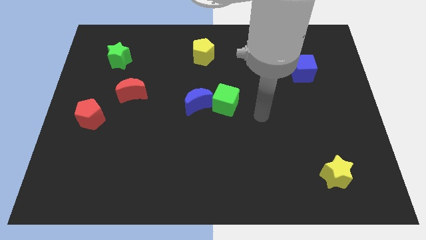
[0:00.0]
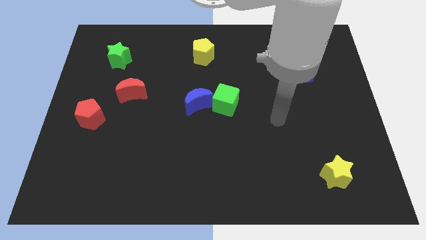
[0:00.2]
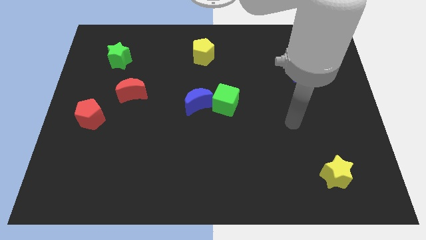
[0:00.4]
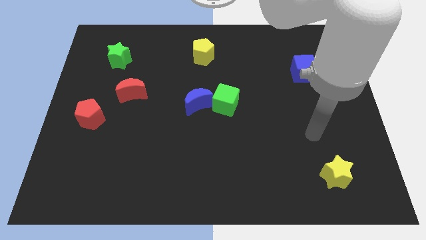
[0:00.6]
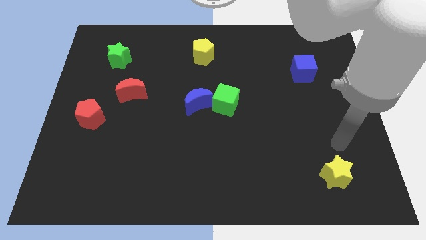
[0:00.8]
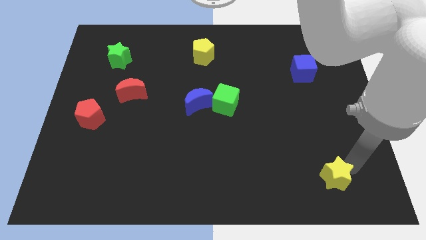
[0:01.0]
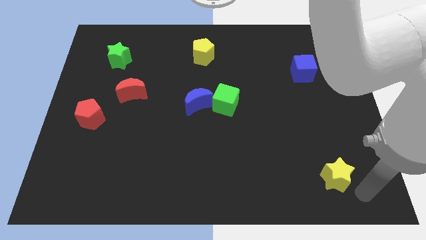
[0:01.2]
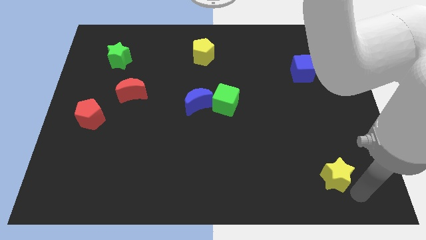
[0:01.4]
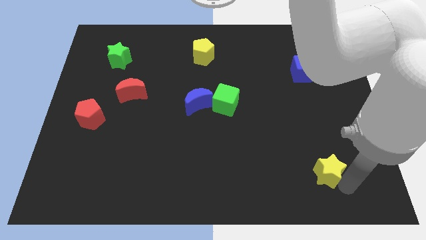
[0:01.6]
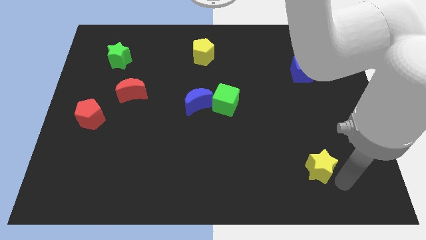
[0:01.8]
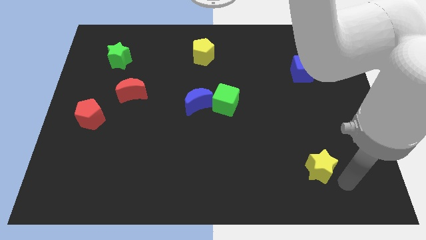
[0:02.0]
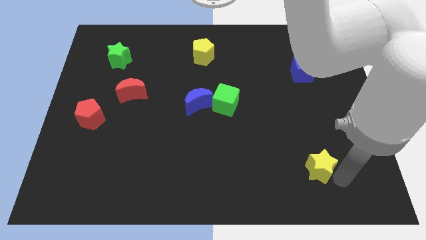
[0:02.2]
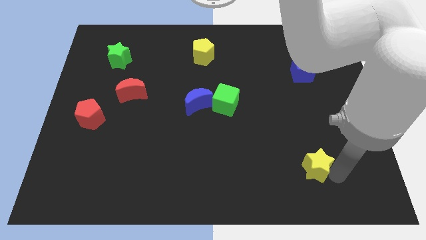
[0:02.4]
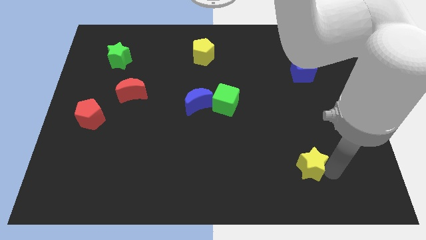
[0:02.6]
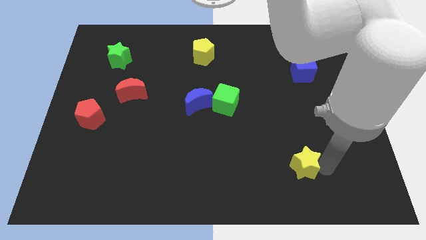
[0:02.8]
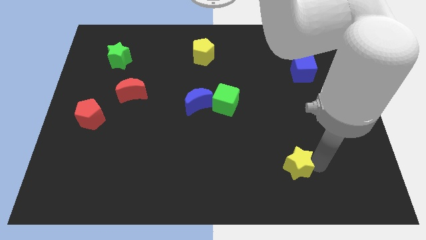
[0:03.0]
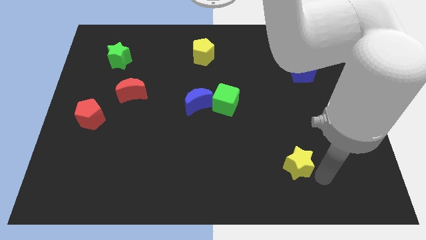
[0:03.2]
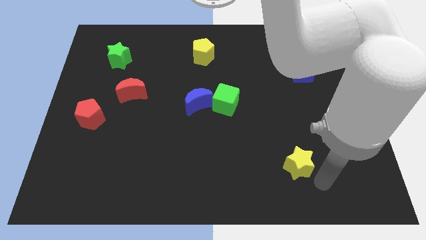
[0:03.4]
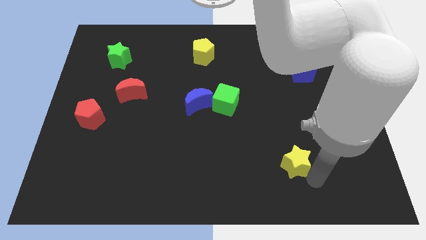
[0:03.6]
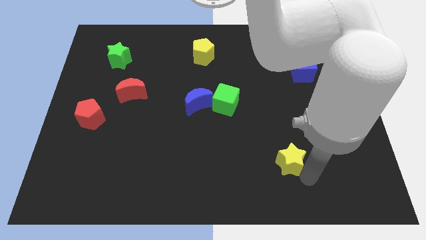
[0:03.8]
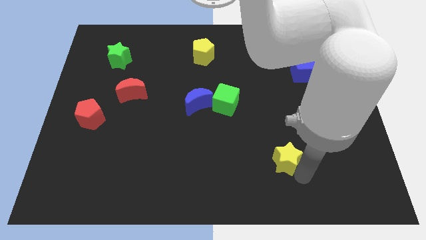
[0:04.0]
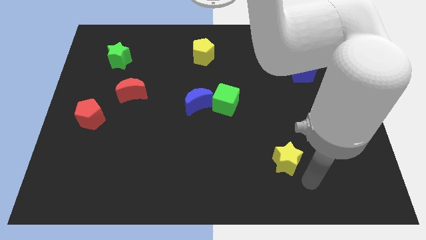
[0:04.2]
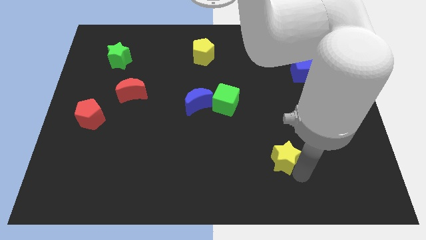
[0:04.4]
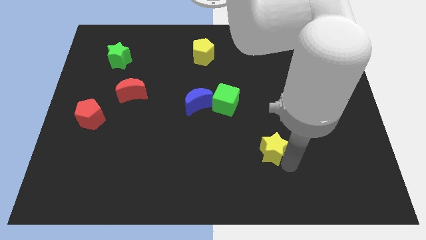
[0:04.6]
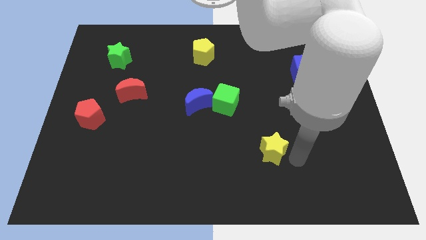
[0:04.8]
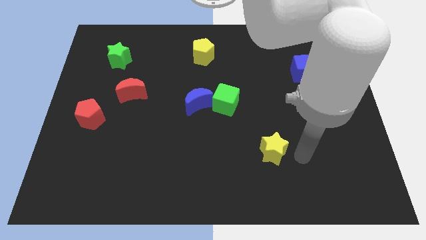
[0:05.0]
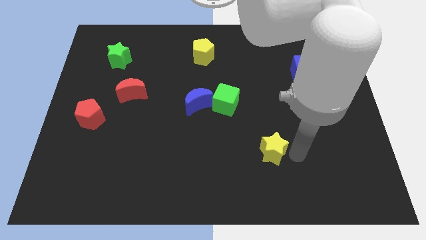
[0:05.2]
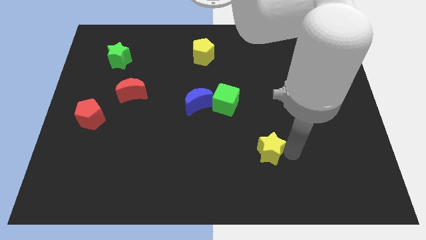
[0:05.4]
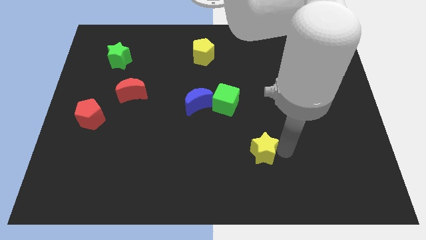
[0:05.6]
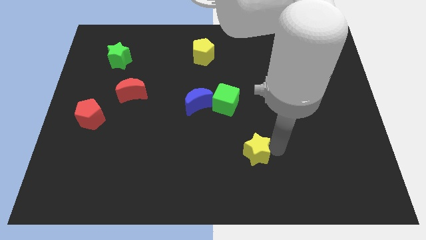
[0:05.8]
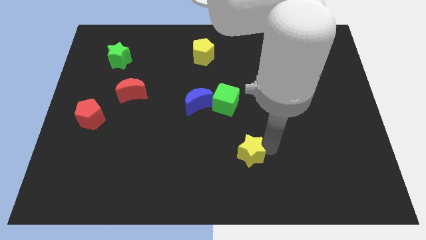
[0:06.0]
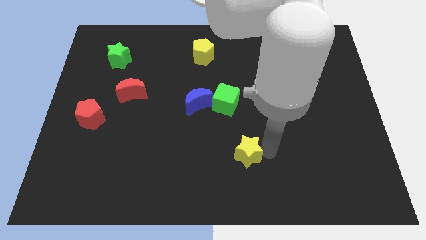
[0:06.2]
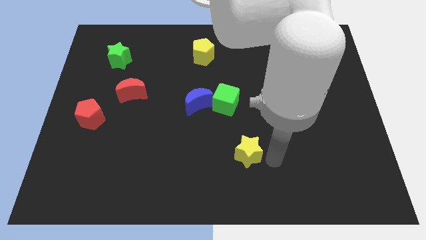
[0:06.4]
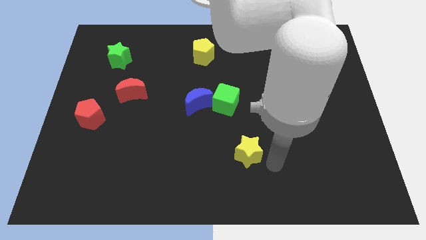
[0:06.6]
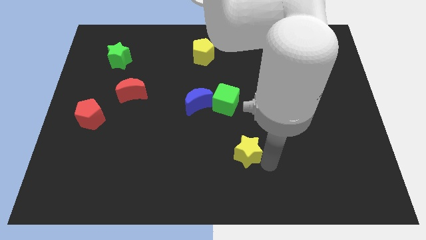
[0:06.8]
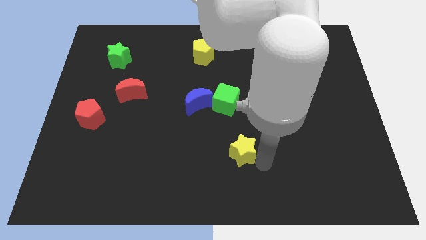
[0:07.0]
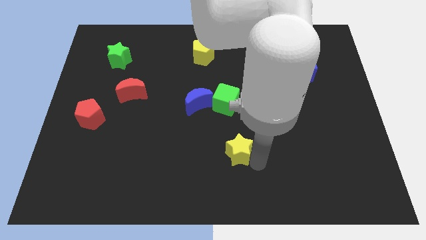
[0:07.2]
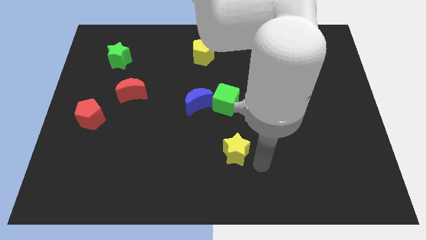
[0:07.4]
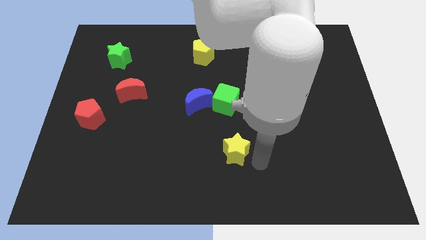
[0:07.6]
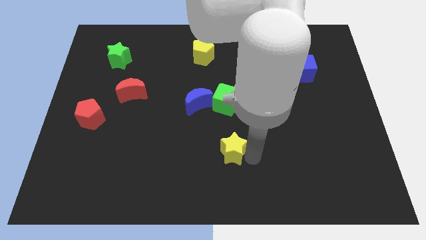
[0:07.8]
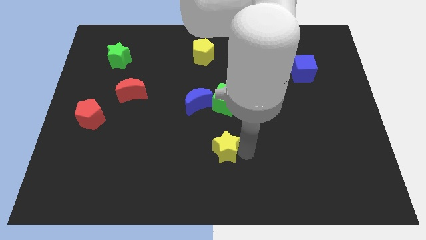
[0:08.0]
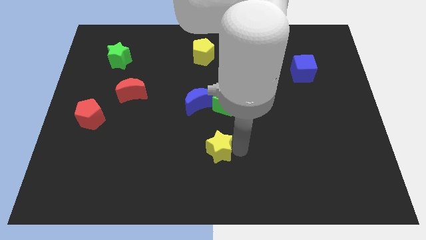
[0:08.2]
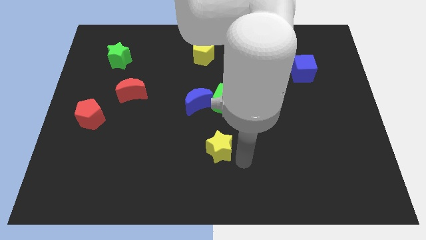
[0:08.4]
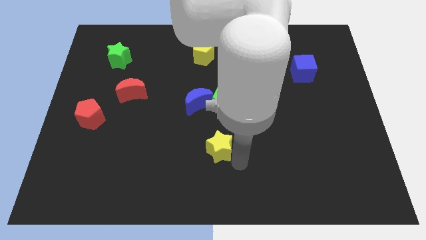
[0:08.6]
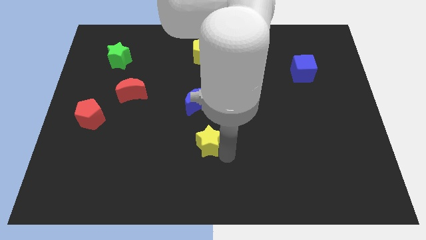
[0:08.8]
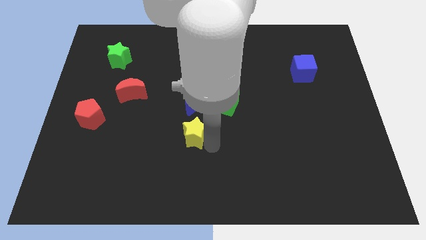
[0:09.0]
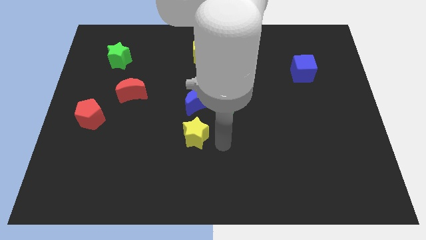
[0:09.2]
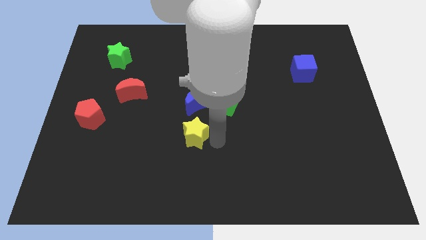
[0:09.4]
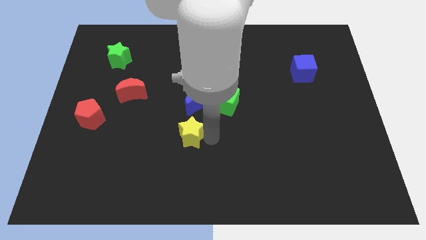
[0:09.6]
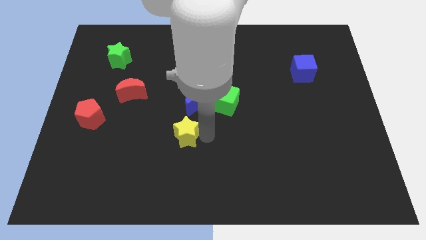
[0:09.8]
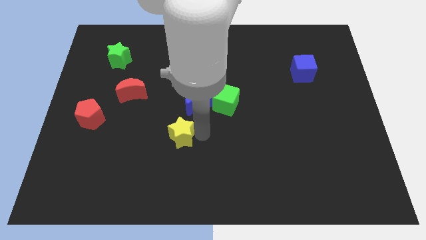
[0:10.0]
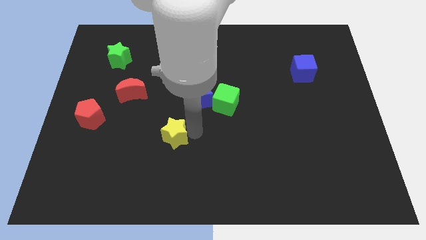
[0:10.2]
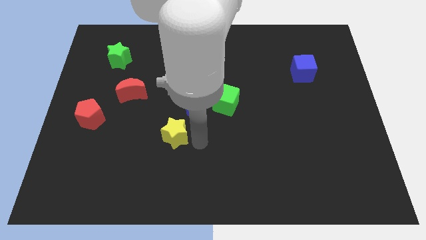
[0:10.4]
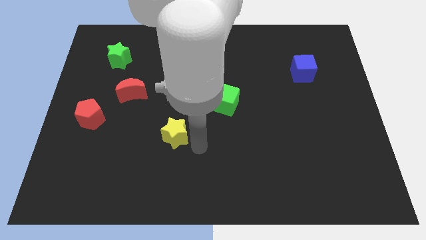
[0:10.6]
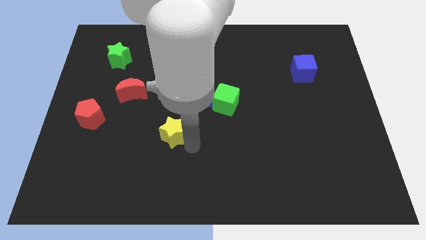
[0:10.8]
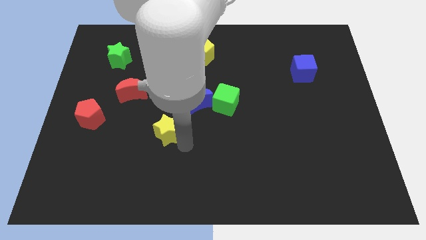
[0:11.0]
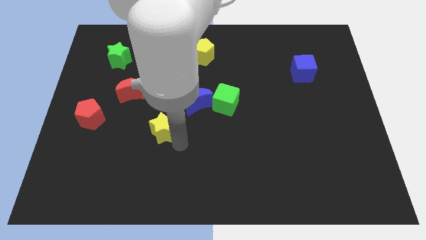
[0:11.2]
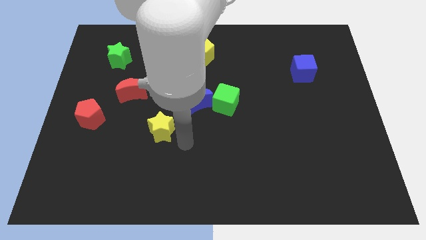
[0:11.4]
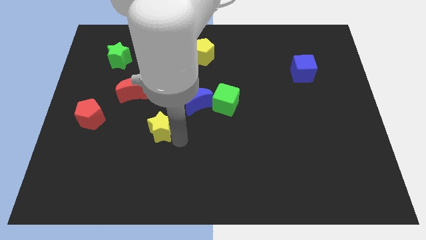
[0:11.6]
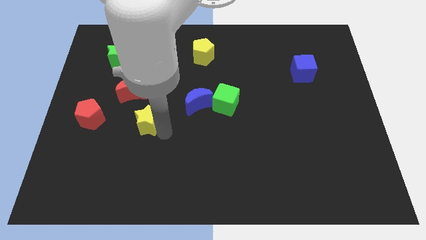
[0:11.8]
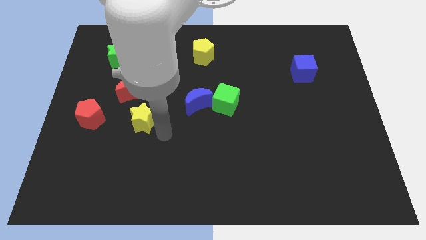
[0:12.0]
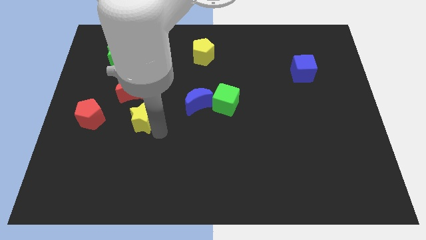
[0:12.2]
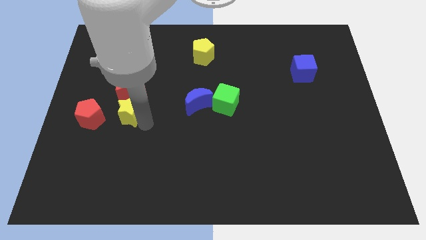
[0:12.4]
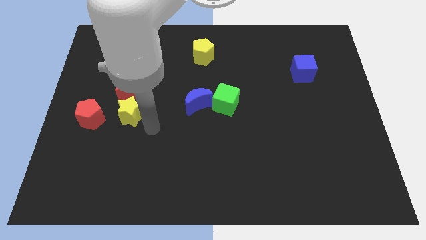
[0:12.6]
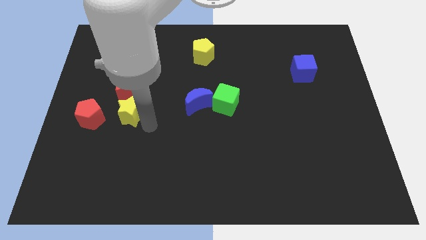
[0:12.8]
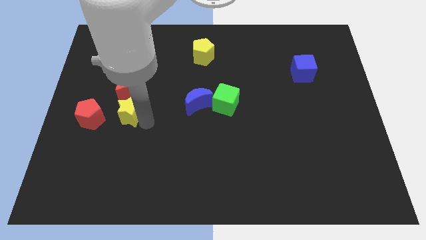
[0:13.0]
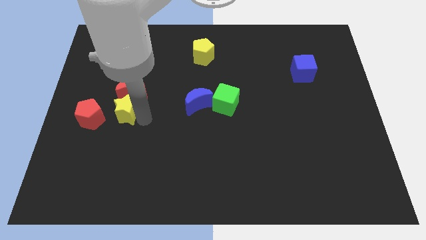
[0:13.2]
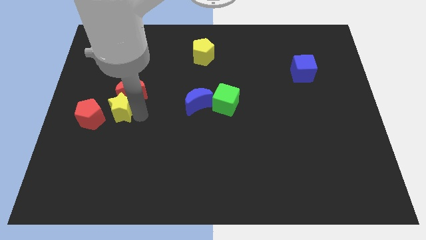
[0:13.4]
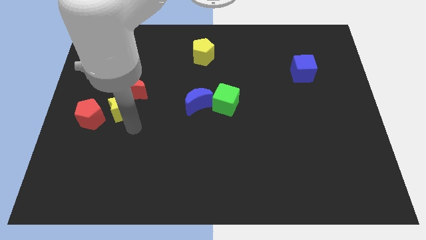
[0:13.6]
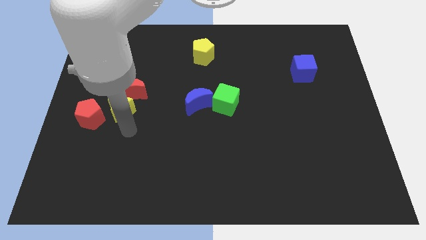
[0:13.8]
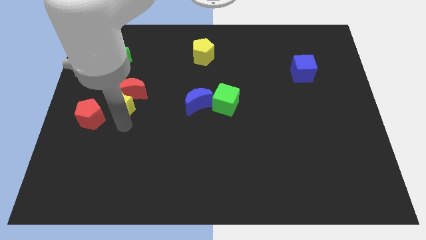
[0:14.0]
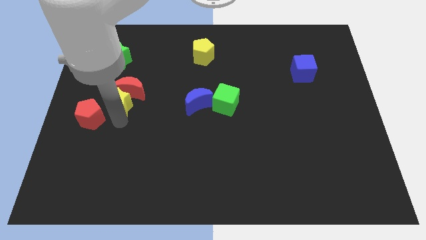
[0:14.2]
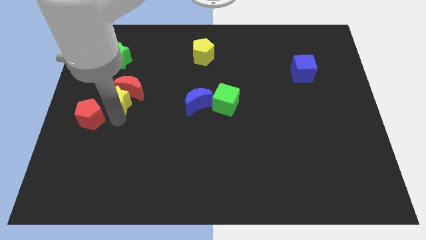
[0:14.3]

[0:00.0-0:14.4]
move the yellow star to the bottom of the green star
